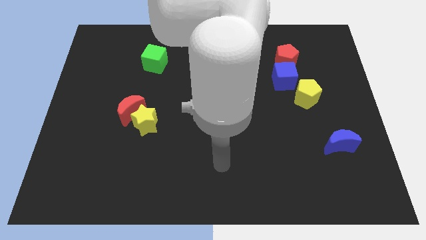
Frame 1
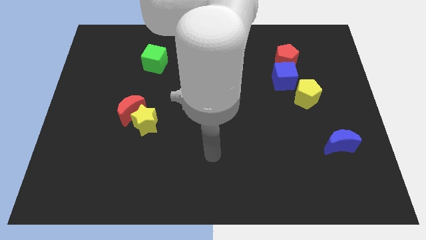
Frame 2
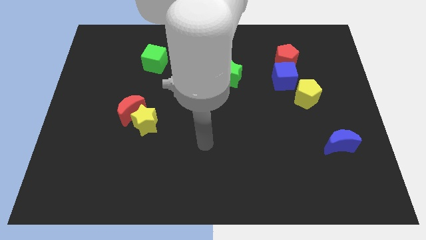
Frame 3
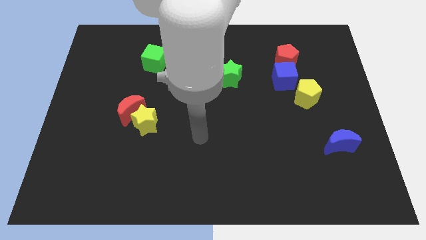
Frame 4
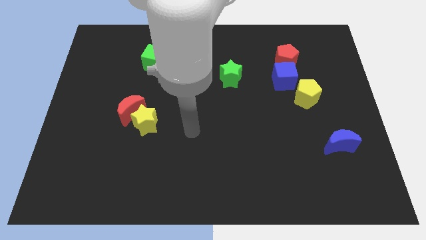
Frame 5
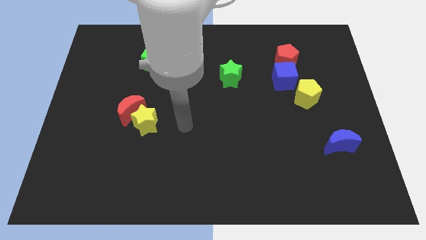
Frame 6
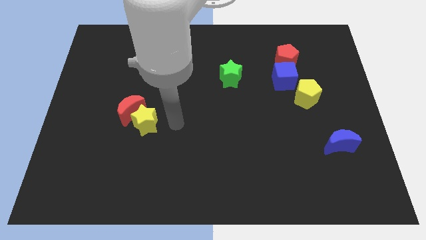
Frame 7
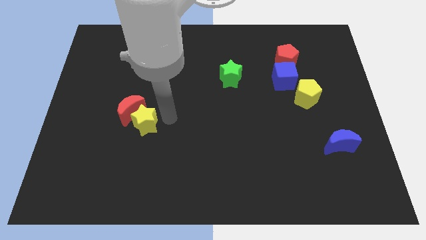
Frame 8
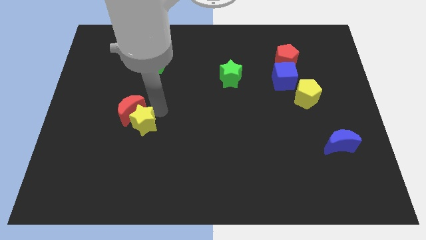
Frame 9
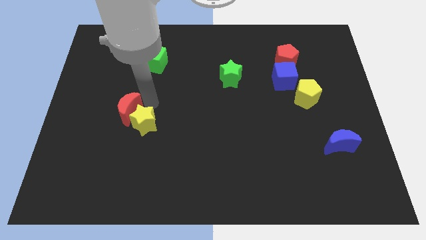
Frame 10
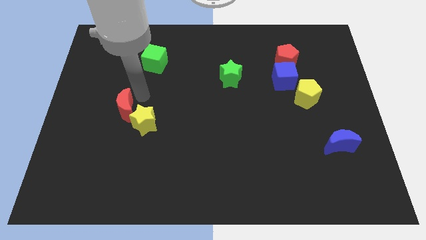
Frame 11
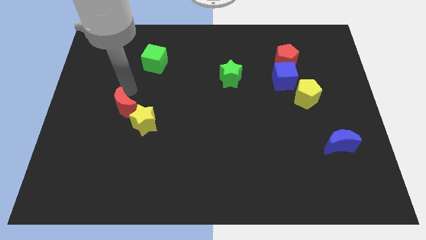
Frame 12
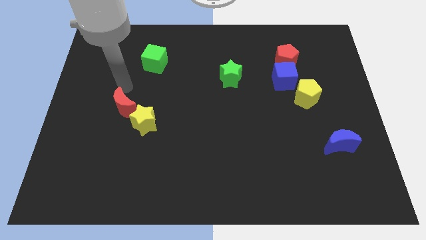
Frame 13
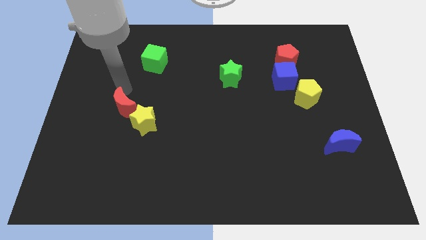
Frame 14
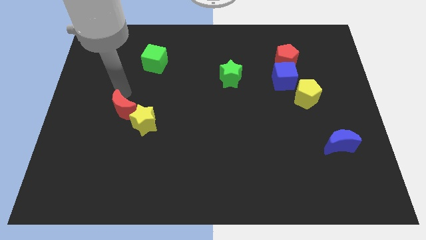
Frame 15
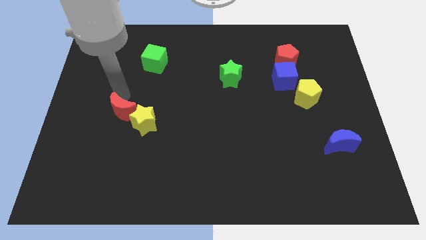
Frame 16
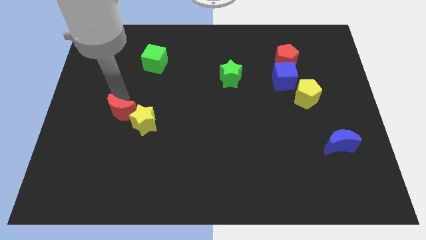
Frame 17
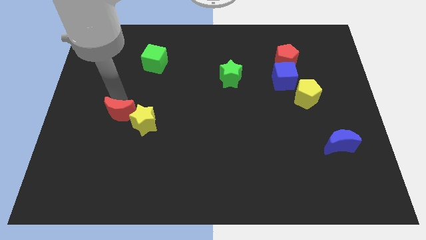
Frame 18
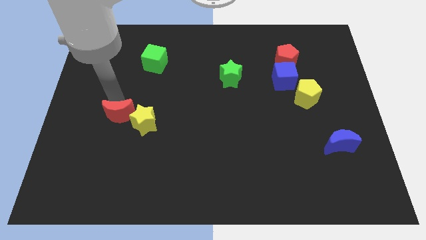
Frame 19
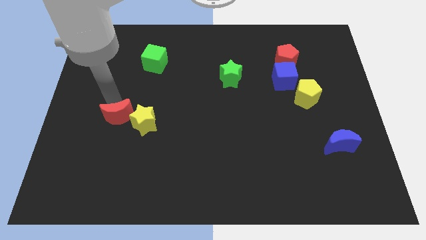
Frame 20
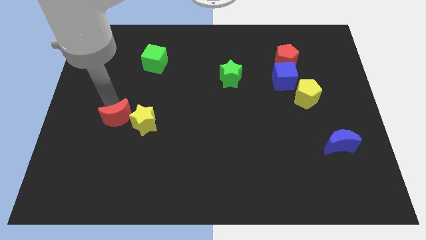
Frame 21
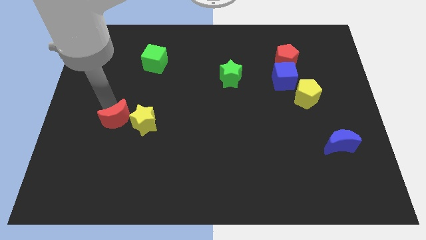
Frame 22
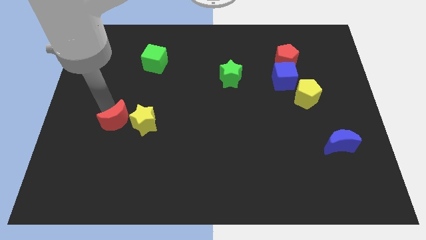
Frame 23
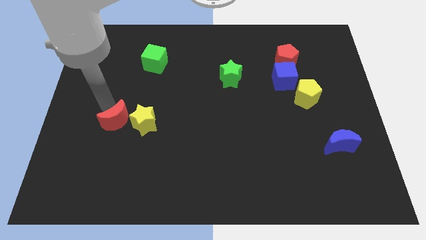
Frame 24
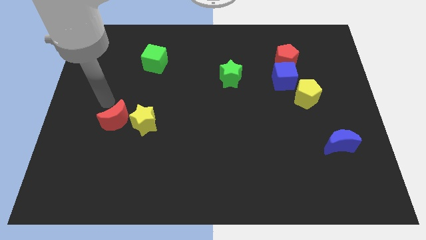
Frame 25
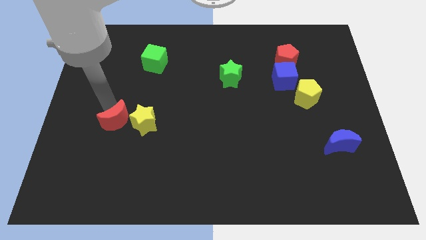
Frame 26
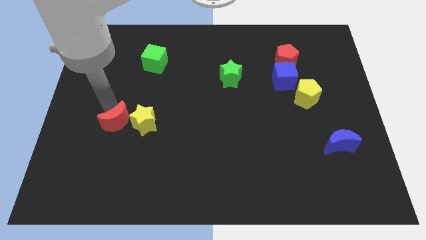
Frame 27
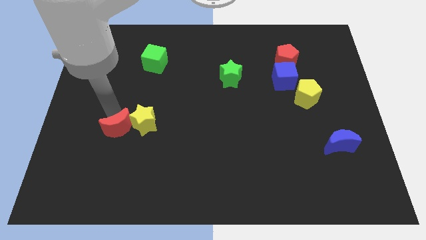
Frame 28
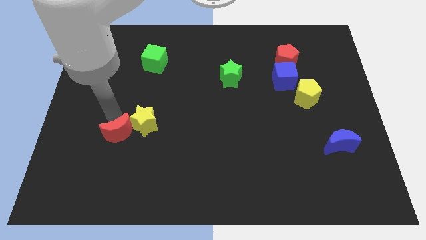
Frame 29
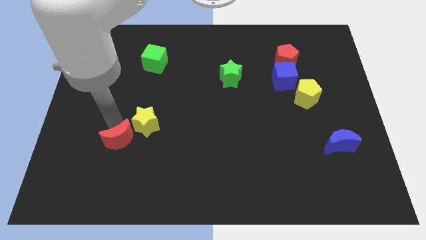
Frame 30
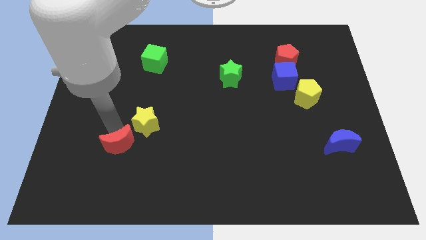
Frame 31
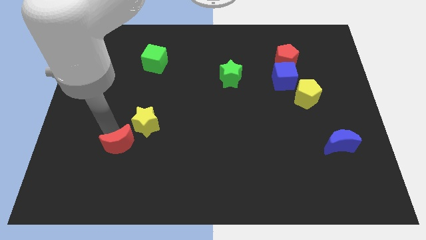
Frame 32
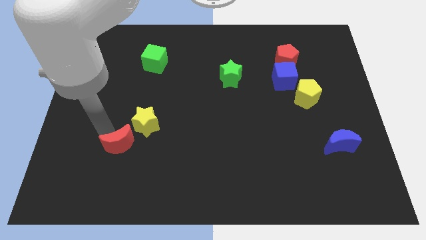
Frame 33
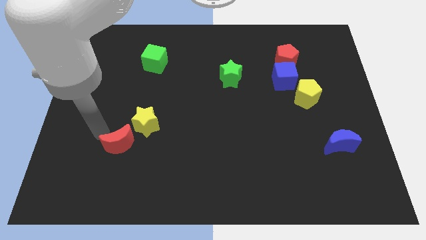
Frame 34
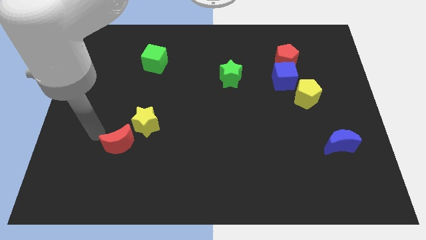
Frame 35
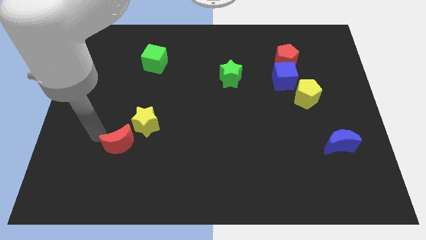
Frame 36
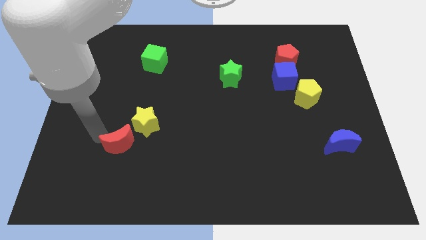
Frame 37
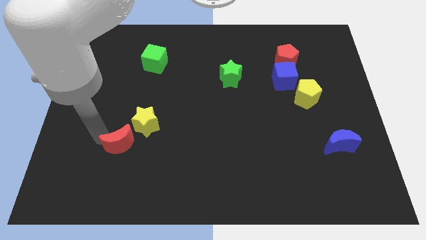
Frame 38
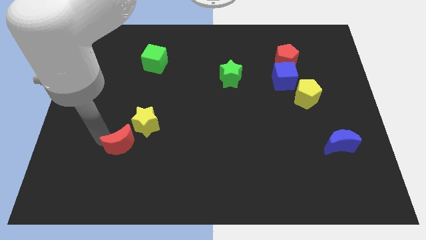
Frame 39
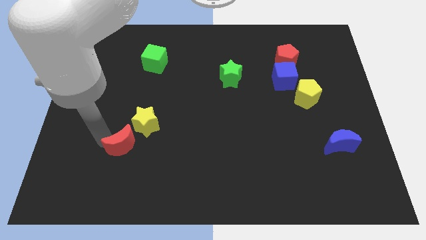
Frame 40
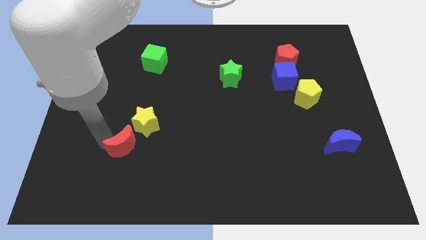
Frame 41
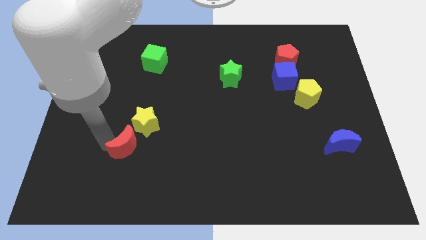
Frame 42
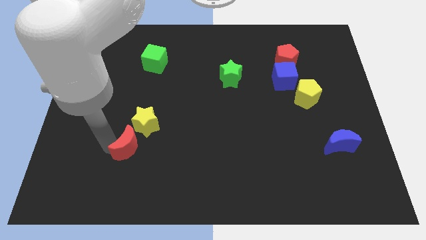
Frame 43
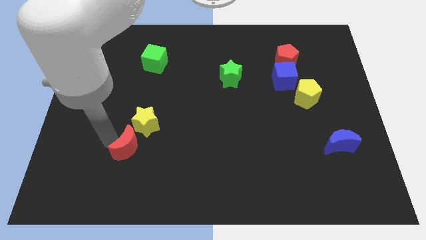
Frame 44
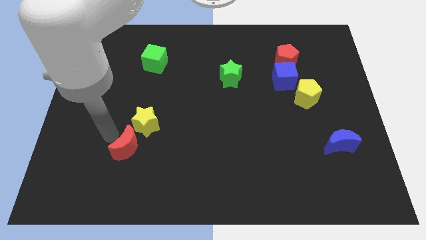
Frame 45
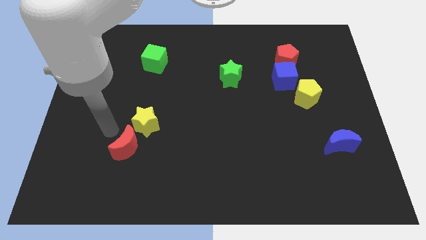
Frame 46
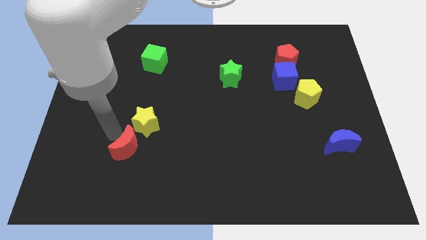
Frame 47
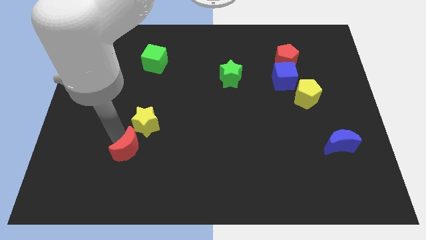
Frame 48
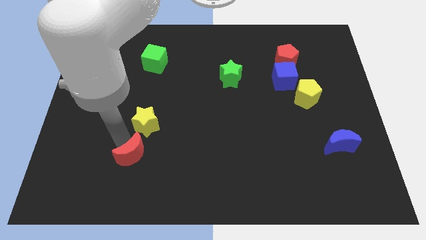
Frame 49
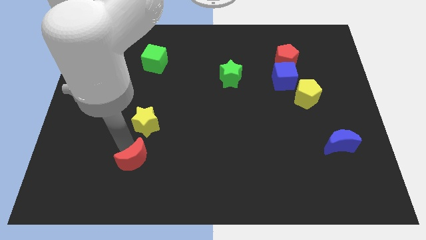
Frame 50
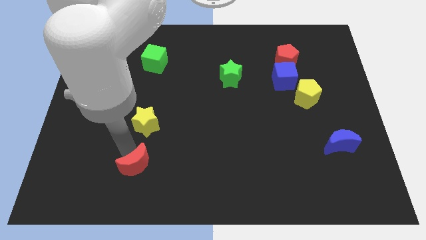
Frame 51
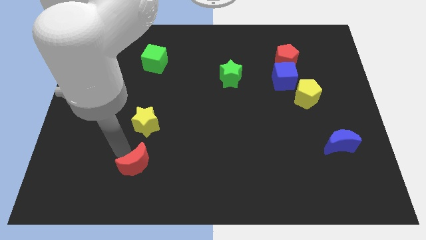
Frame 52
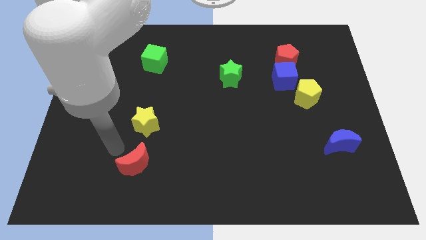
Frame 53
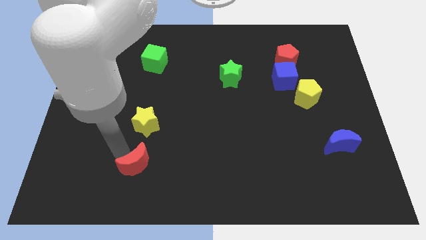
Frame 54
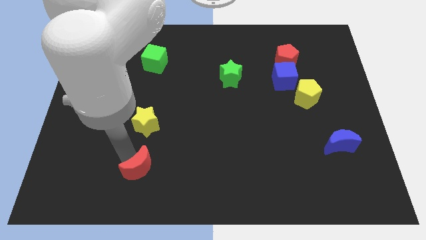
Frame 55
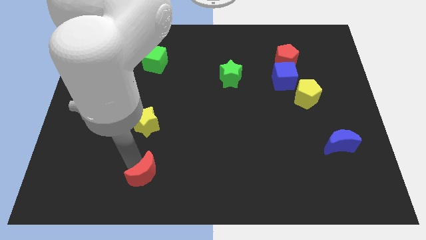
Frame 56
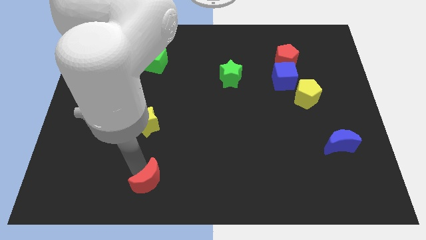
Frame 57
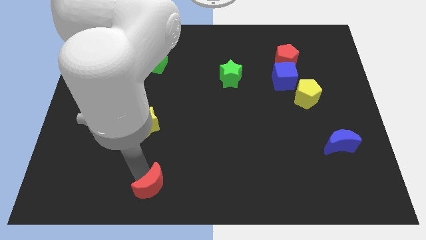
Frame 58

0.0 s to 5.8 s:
push the red moon to the bottom
